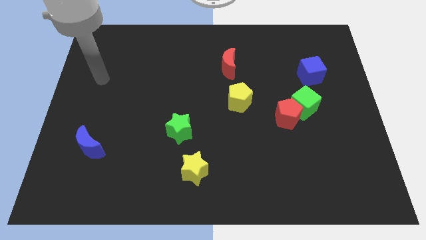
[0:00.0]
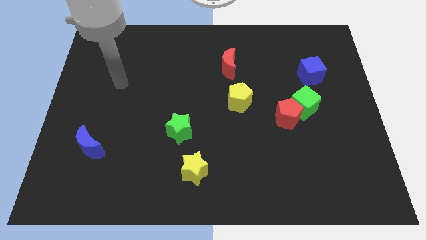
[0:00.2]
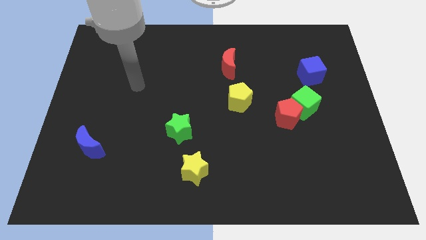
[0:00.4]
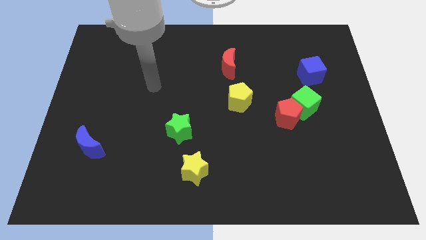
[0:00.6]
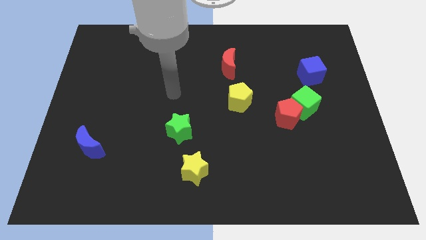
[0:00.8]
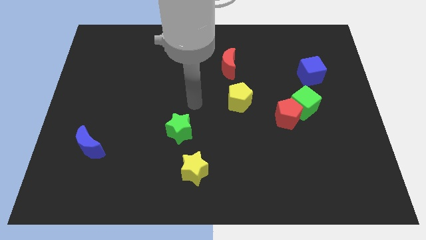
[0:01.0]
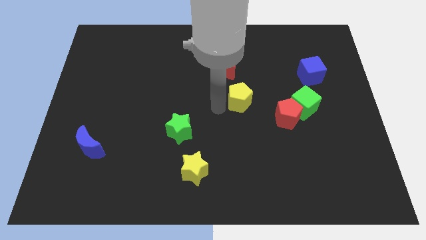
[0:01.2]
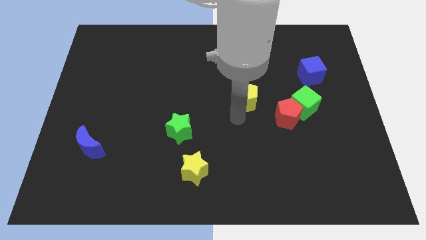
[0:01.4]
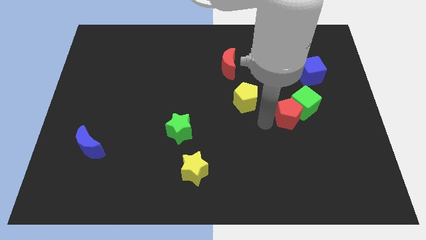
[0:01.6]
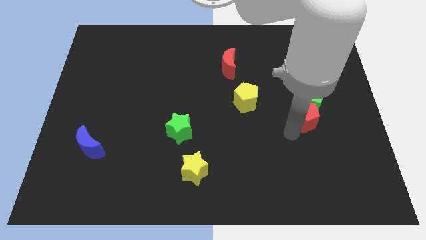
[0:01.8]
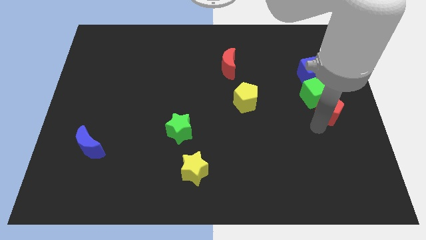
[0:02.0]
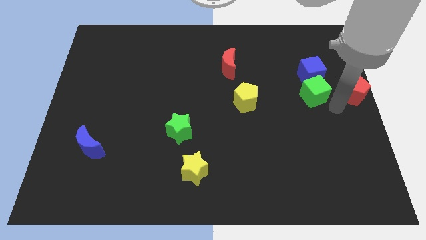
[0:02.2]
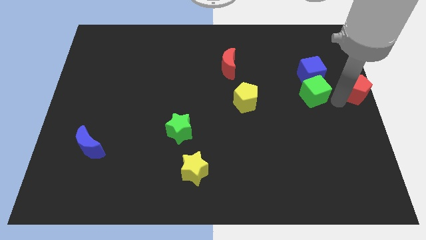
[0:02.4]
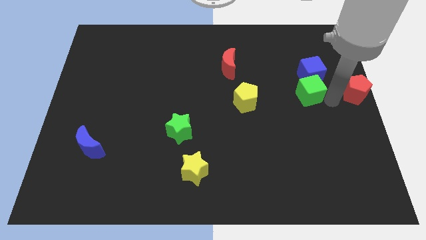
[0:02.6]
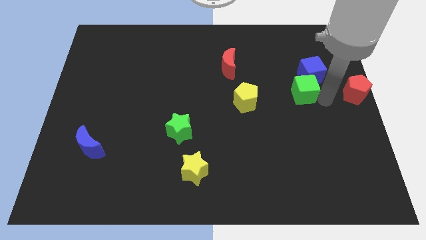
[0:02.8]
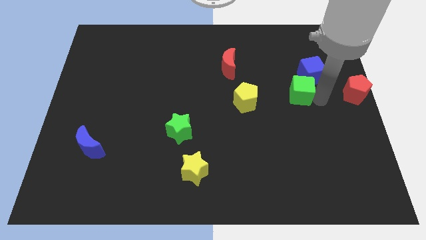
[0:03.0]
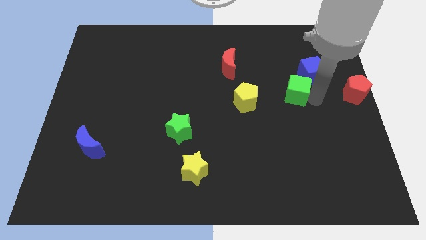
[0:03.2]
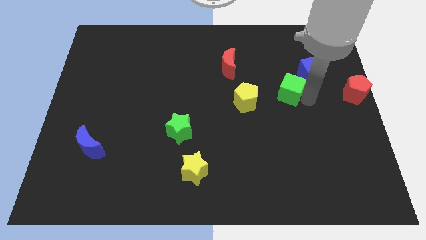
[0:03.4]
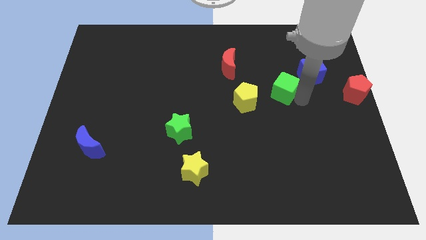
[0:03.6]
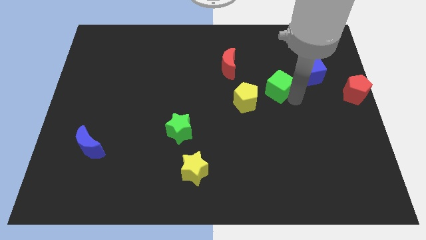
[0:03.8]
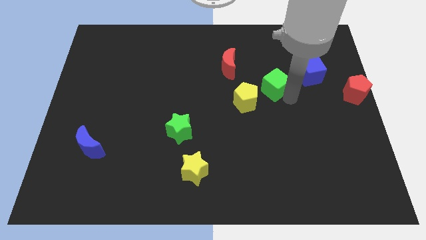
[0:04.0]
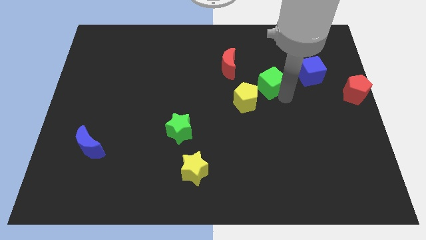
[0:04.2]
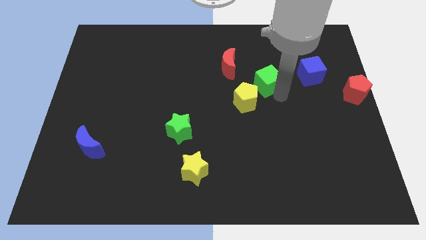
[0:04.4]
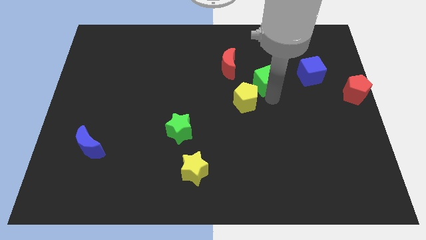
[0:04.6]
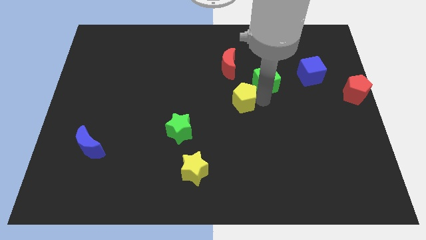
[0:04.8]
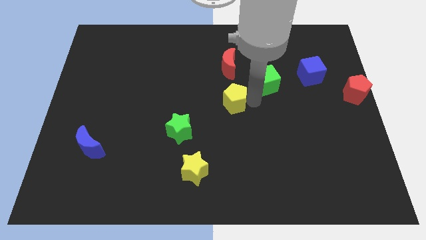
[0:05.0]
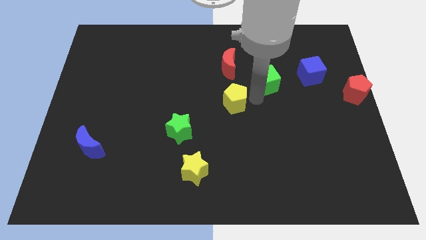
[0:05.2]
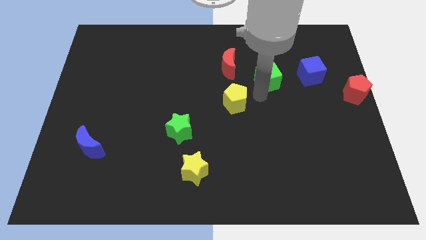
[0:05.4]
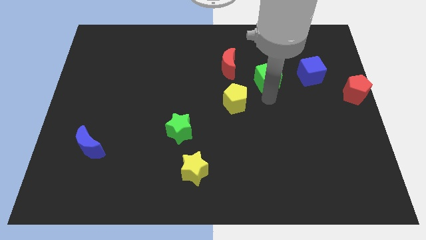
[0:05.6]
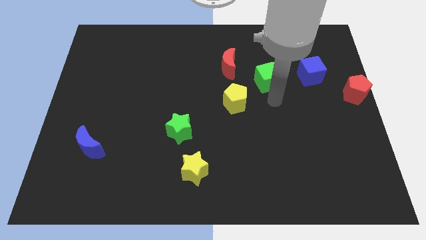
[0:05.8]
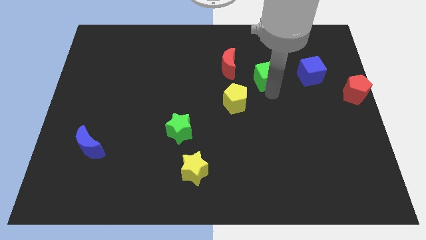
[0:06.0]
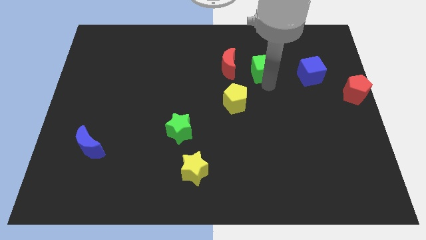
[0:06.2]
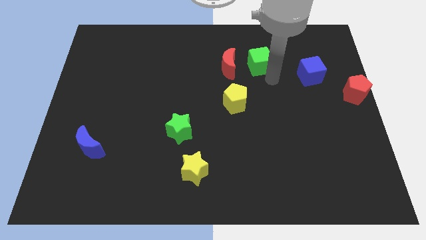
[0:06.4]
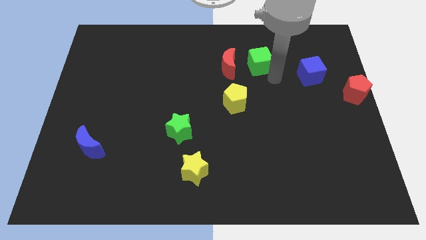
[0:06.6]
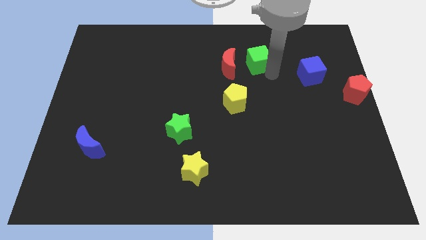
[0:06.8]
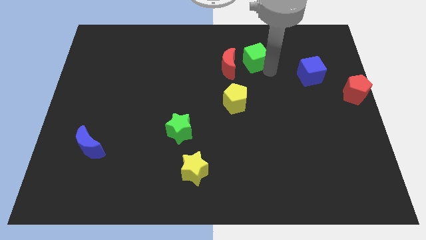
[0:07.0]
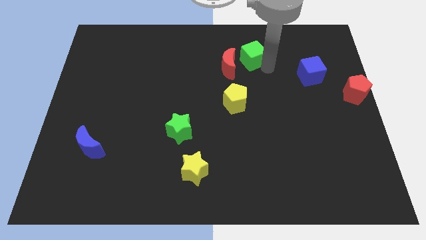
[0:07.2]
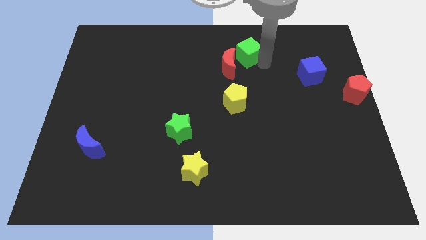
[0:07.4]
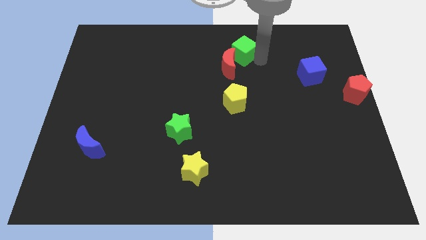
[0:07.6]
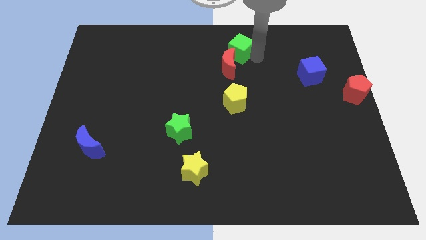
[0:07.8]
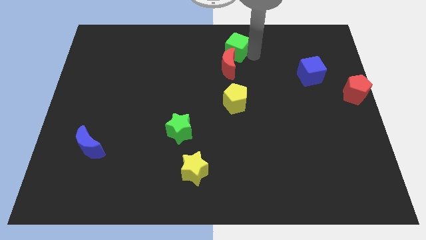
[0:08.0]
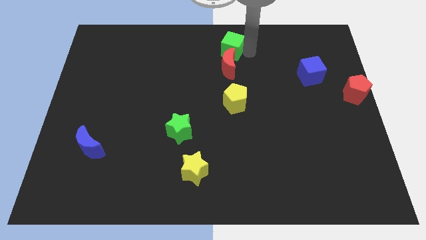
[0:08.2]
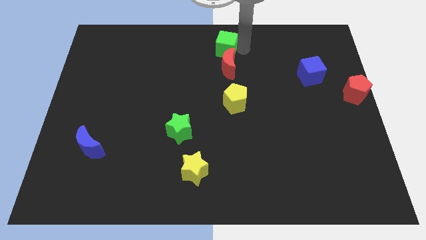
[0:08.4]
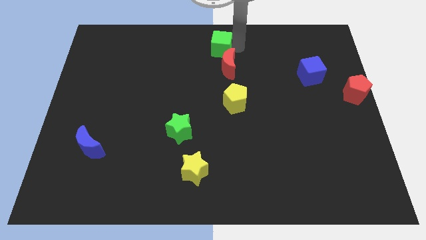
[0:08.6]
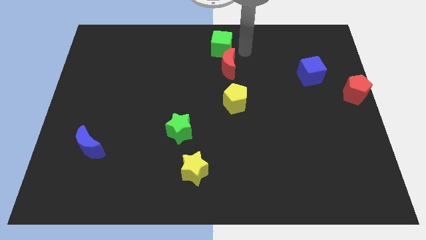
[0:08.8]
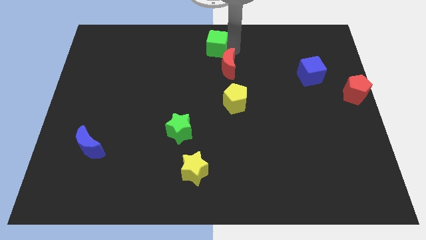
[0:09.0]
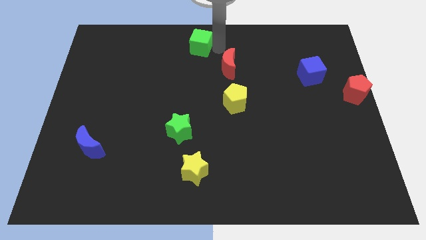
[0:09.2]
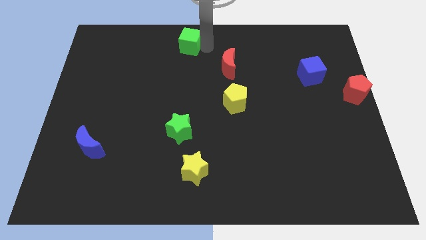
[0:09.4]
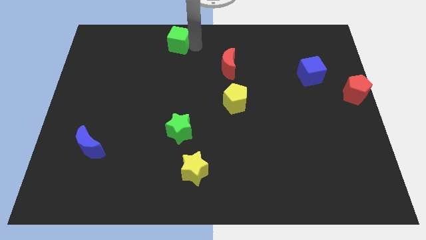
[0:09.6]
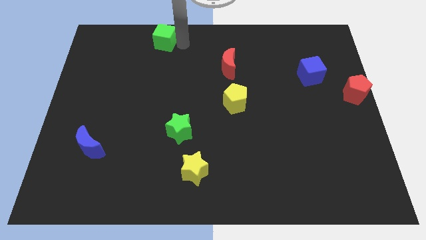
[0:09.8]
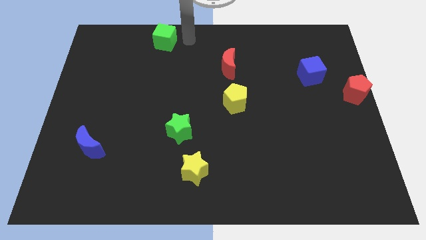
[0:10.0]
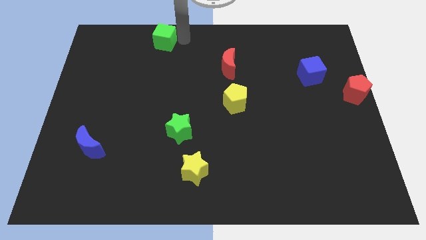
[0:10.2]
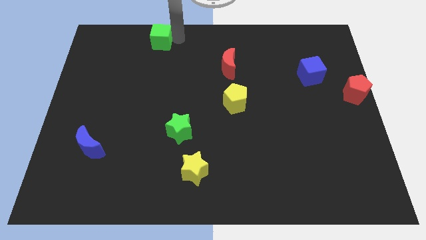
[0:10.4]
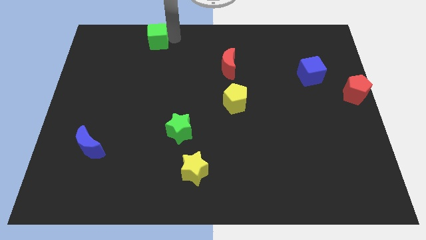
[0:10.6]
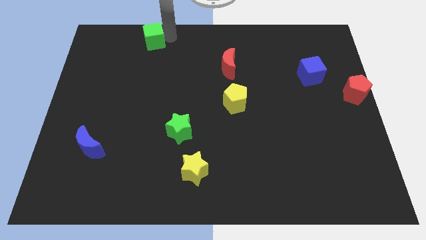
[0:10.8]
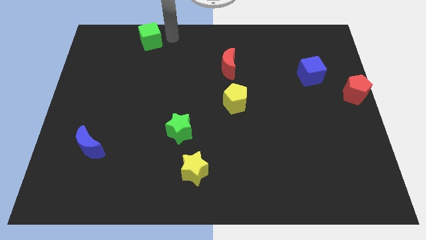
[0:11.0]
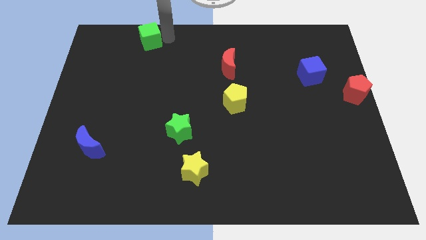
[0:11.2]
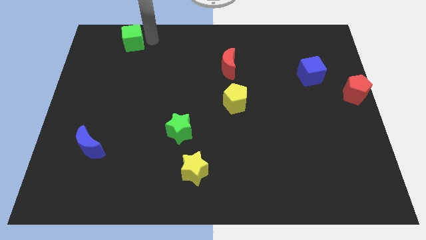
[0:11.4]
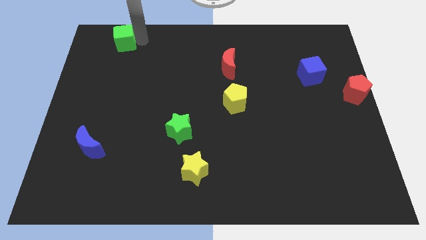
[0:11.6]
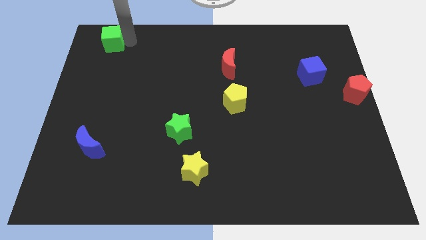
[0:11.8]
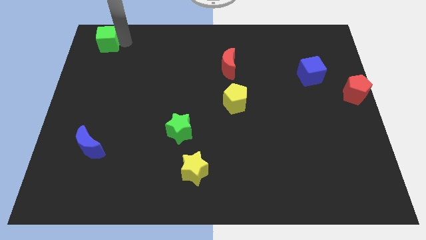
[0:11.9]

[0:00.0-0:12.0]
push the green cube to the top left corner
